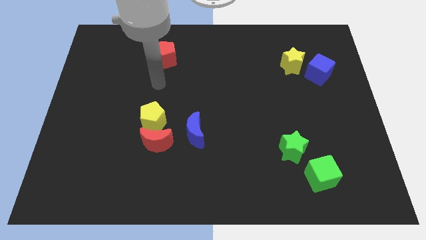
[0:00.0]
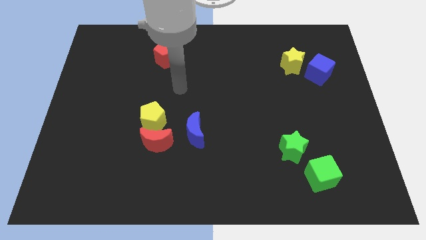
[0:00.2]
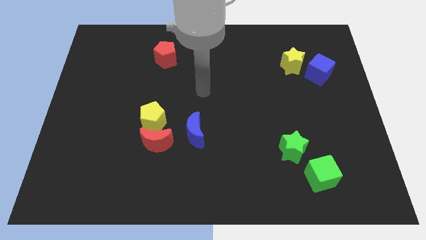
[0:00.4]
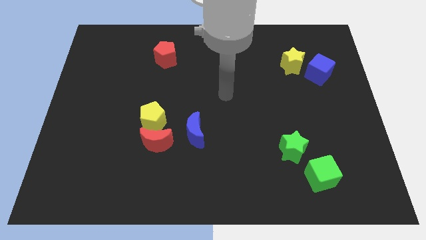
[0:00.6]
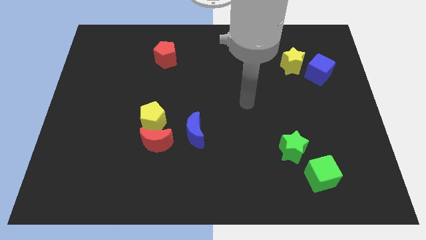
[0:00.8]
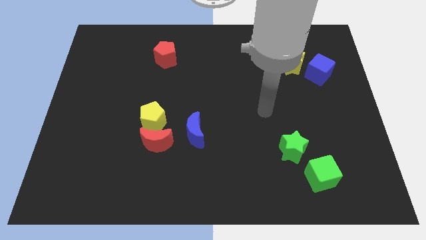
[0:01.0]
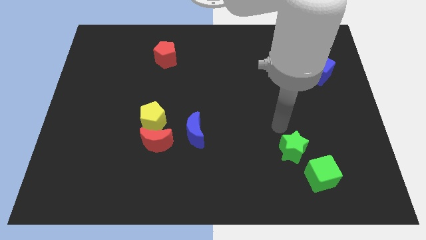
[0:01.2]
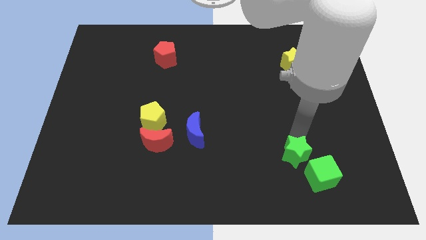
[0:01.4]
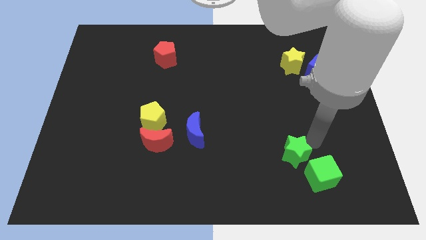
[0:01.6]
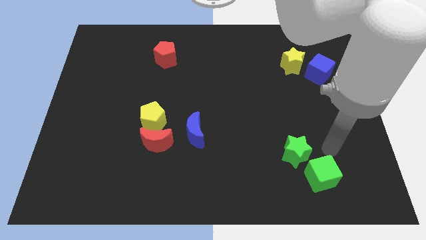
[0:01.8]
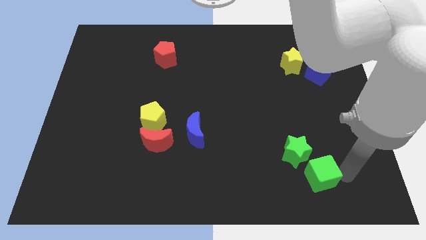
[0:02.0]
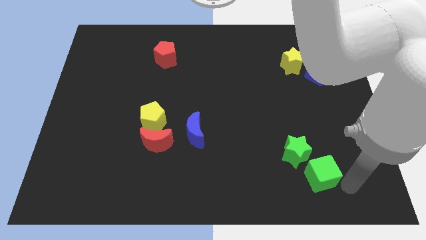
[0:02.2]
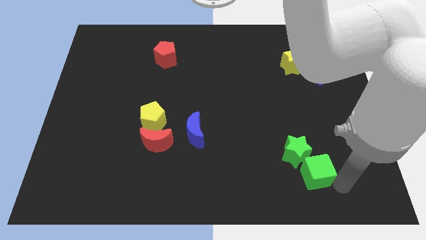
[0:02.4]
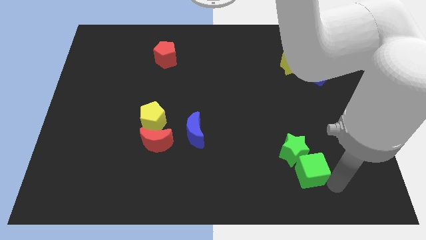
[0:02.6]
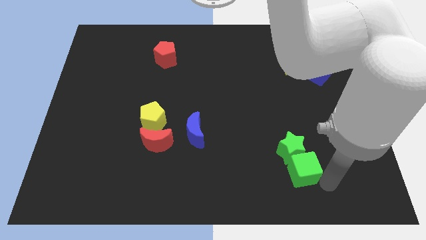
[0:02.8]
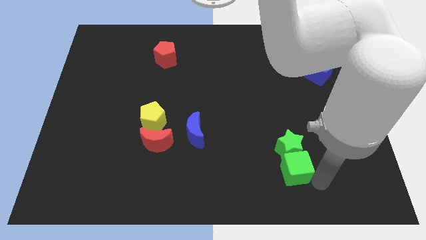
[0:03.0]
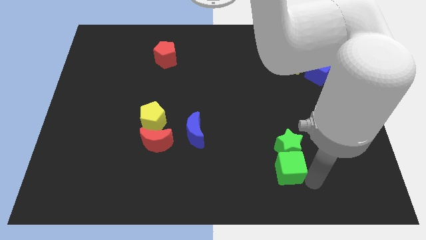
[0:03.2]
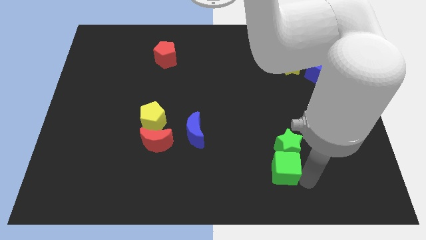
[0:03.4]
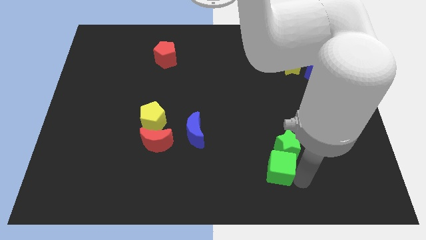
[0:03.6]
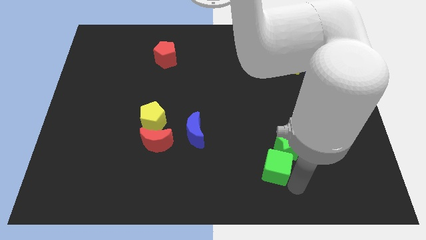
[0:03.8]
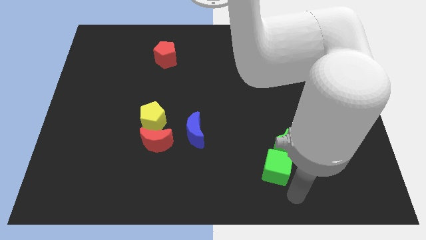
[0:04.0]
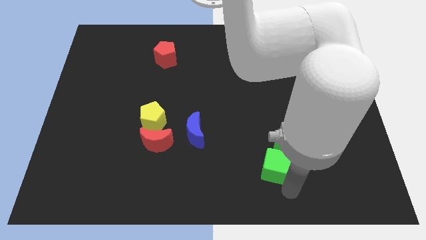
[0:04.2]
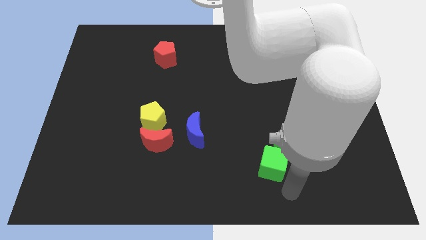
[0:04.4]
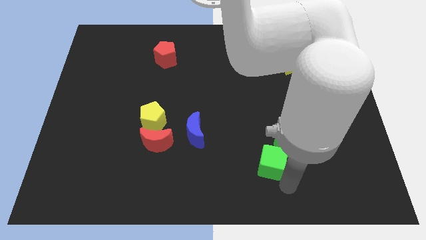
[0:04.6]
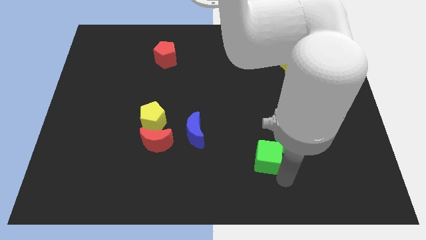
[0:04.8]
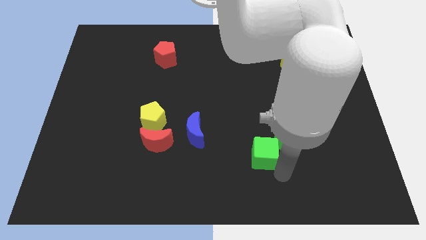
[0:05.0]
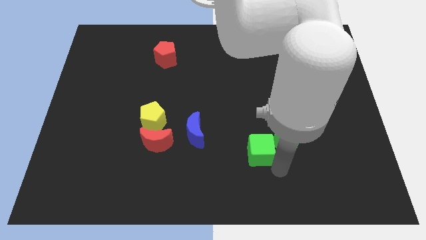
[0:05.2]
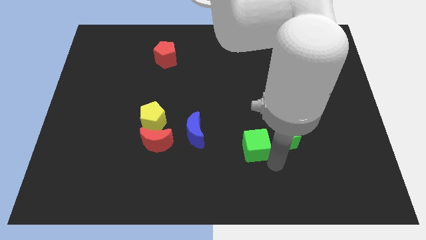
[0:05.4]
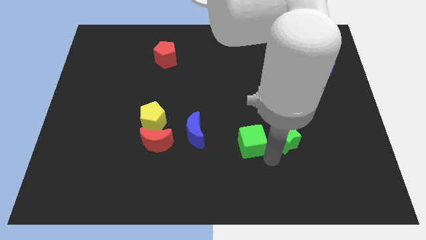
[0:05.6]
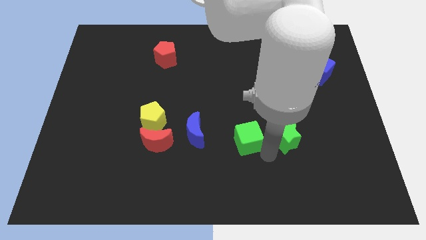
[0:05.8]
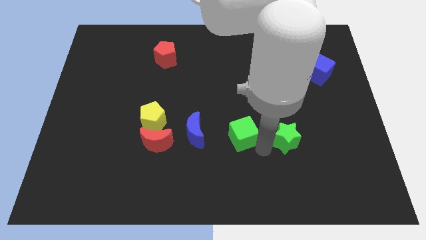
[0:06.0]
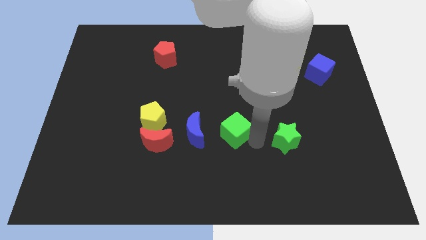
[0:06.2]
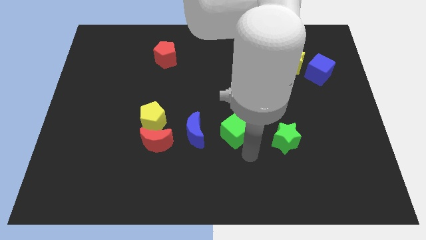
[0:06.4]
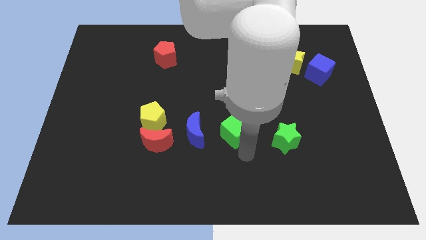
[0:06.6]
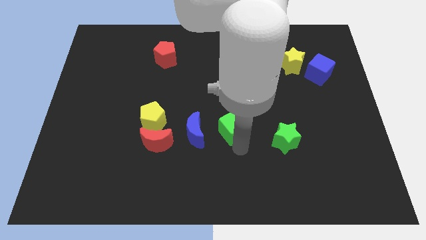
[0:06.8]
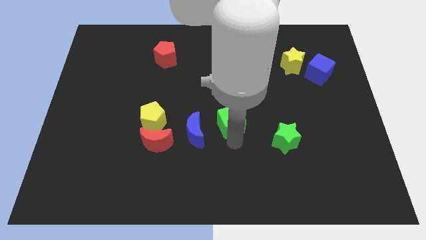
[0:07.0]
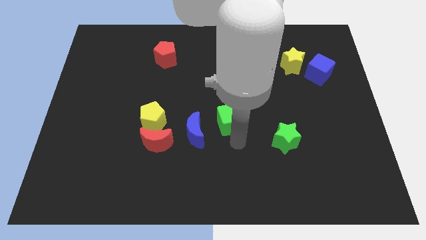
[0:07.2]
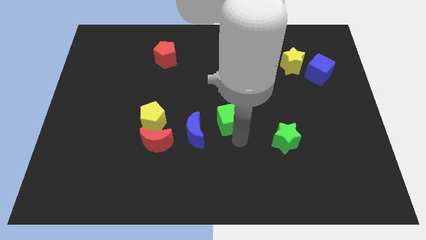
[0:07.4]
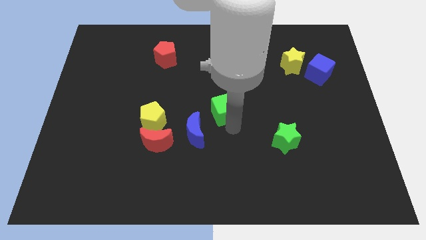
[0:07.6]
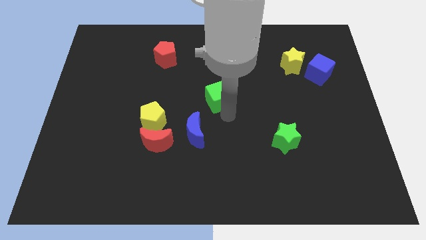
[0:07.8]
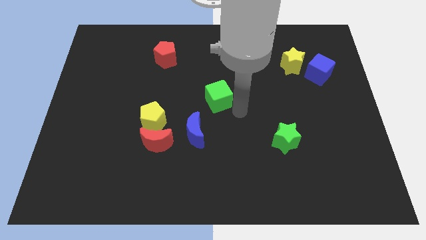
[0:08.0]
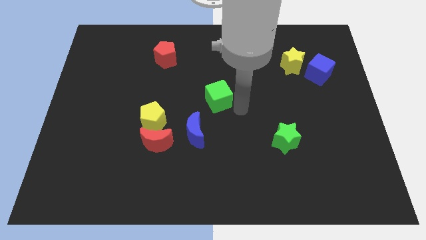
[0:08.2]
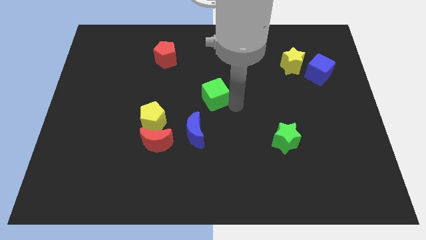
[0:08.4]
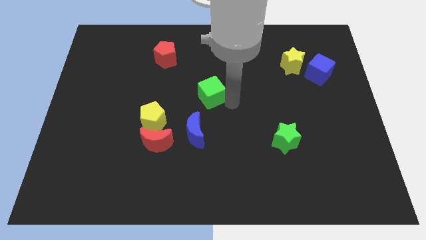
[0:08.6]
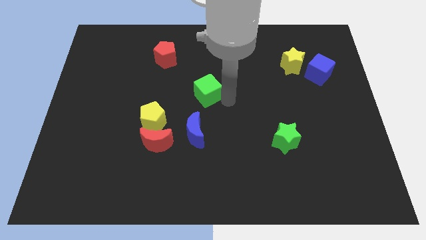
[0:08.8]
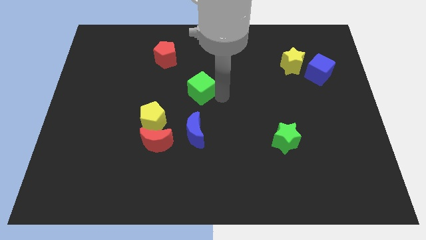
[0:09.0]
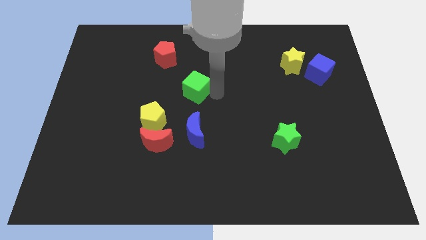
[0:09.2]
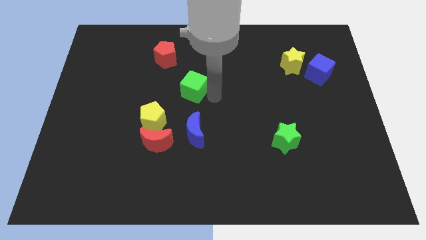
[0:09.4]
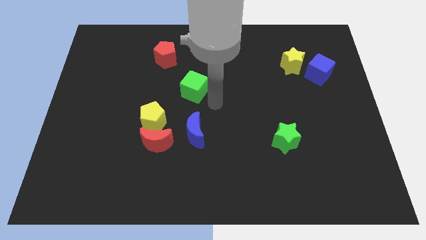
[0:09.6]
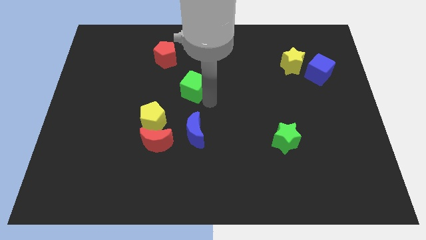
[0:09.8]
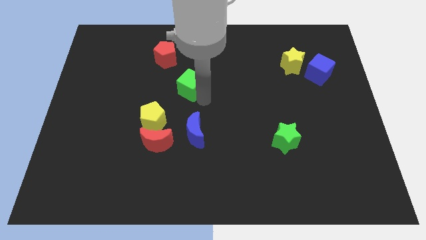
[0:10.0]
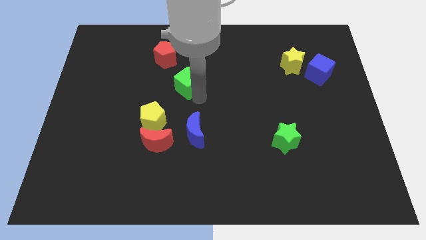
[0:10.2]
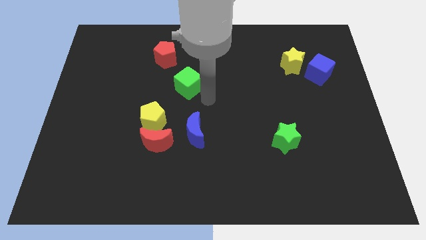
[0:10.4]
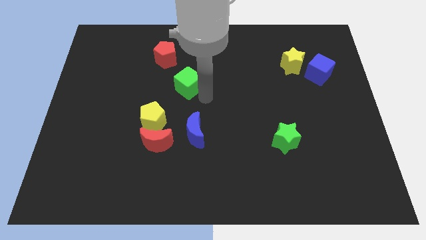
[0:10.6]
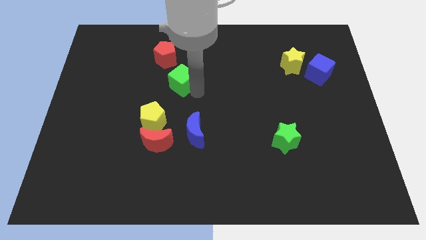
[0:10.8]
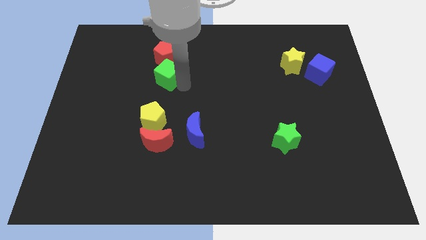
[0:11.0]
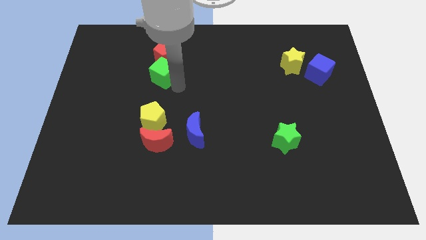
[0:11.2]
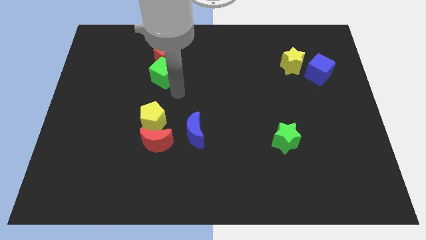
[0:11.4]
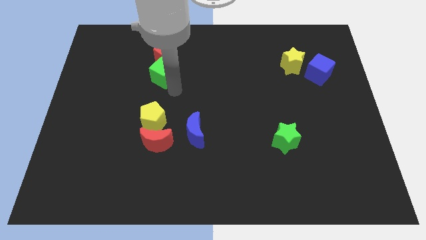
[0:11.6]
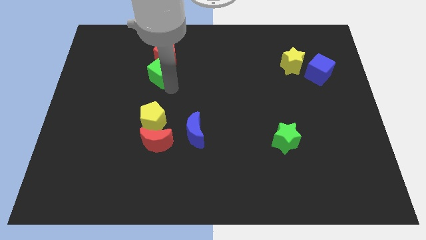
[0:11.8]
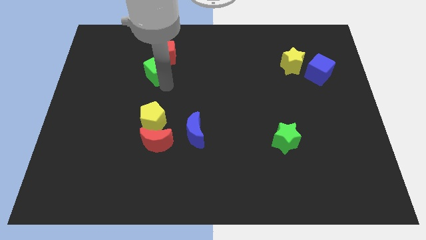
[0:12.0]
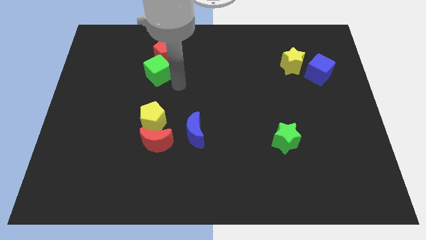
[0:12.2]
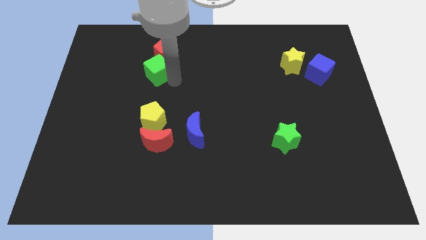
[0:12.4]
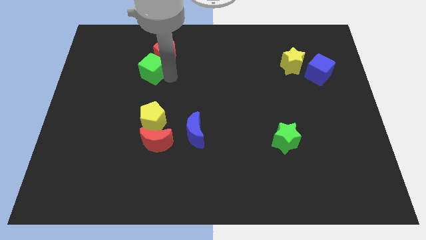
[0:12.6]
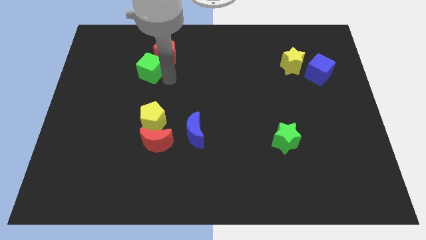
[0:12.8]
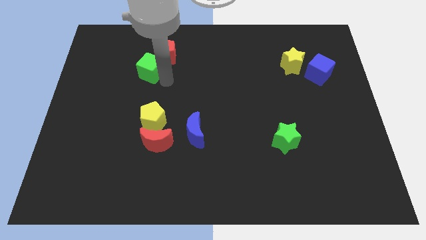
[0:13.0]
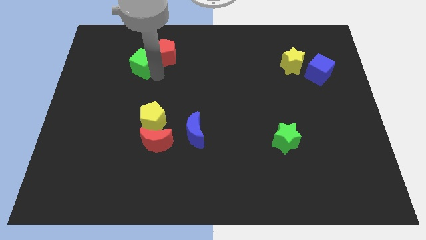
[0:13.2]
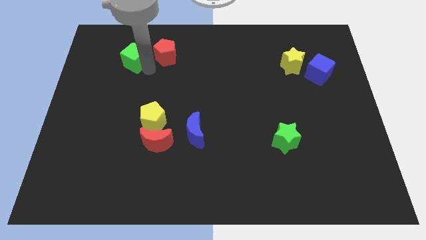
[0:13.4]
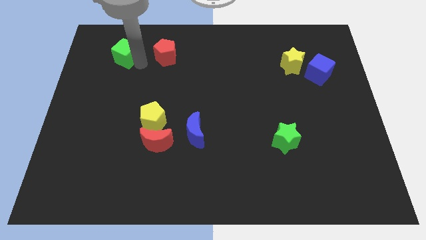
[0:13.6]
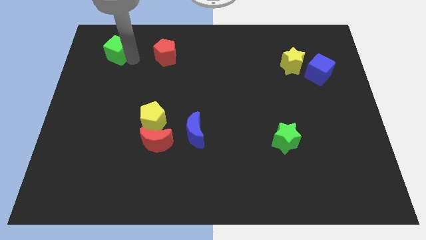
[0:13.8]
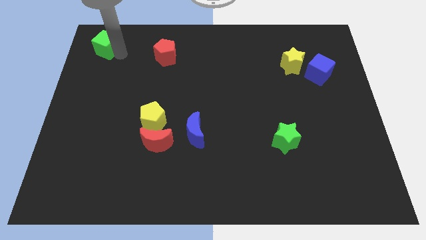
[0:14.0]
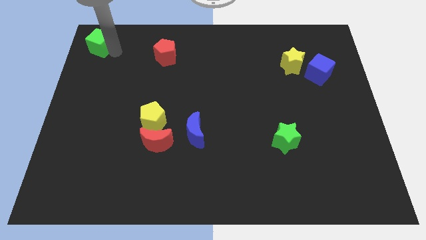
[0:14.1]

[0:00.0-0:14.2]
push the green cube to the top left of the board
